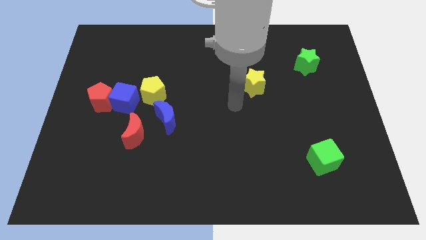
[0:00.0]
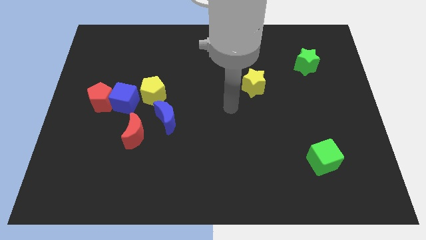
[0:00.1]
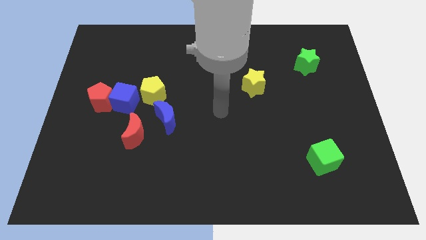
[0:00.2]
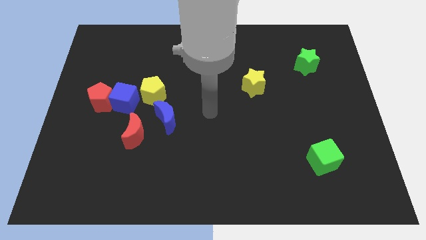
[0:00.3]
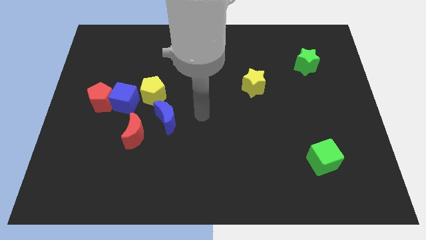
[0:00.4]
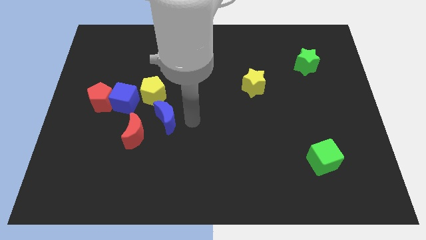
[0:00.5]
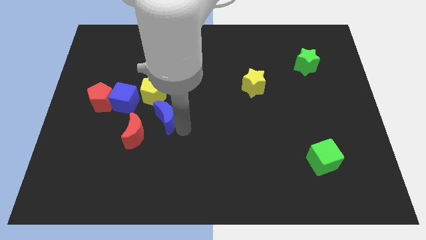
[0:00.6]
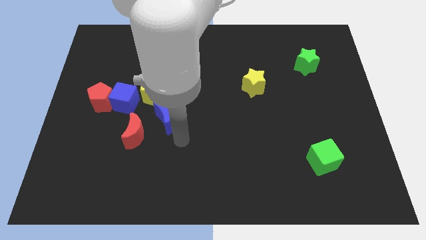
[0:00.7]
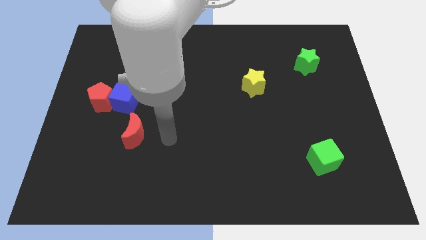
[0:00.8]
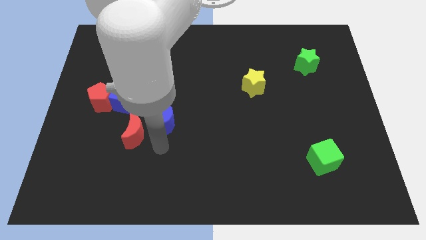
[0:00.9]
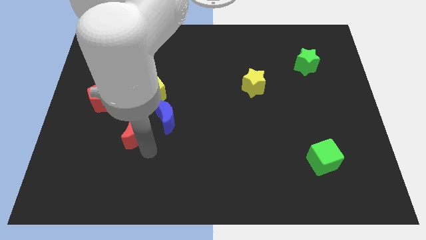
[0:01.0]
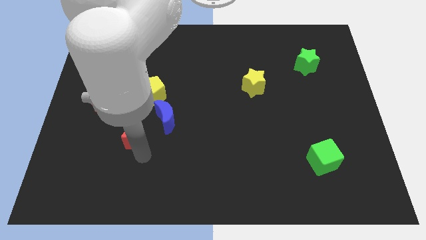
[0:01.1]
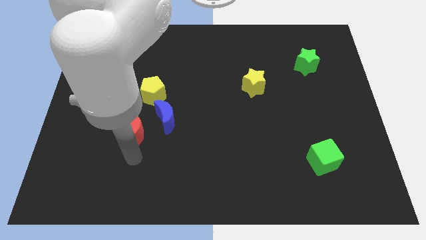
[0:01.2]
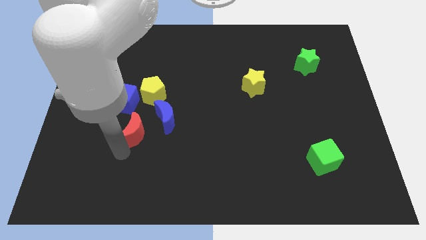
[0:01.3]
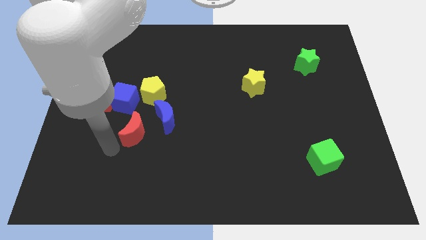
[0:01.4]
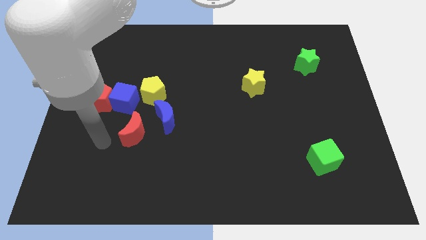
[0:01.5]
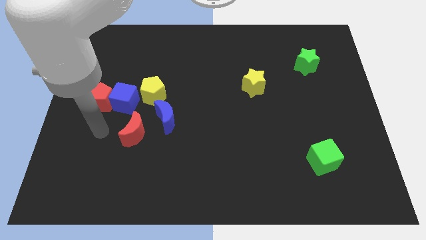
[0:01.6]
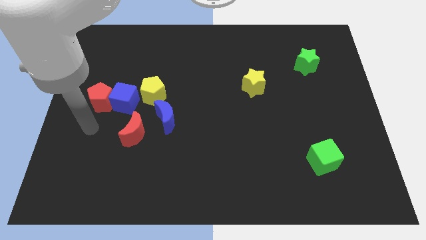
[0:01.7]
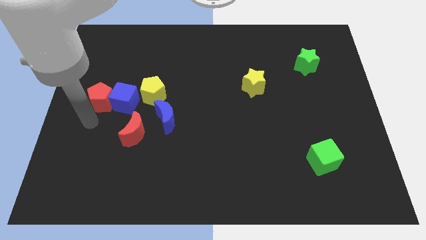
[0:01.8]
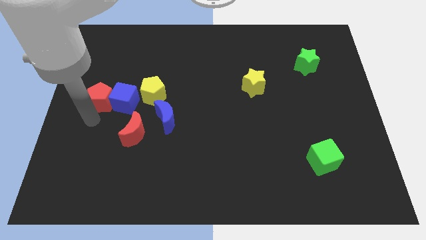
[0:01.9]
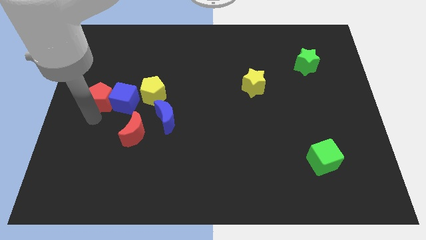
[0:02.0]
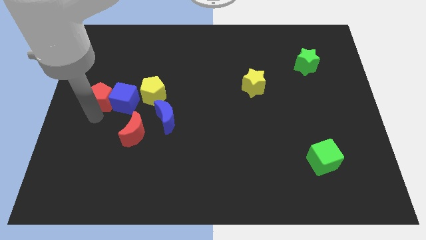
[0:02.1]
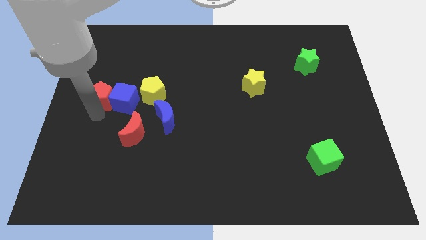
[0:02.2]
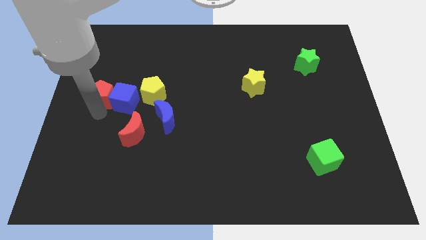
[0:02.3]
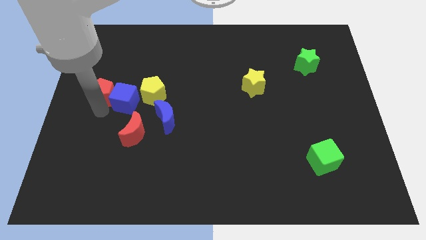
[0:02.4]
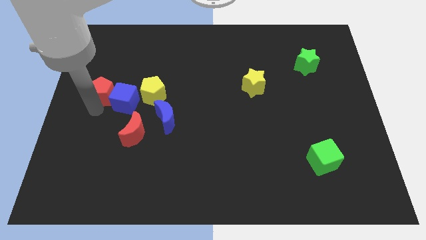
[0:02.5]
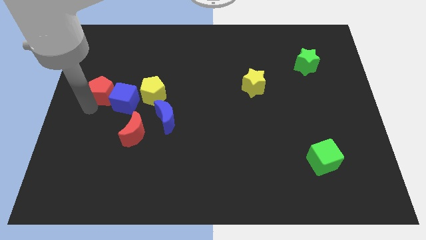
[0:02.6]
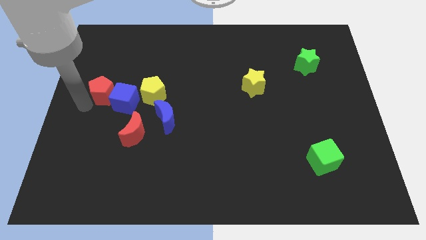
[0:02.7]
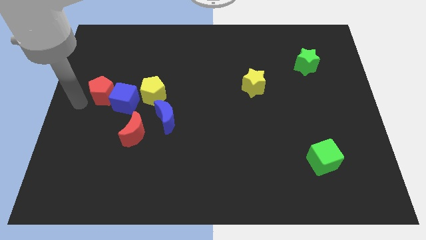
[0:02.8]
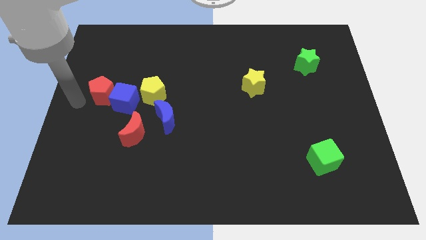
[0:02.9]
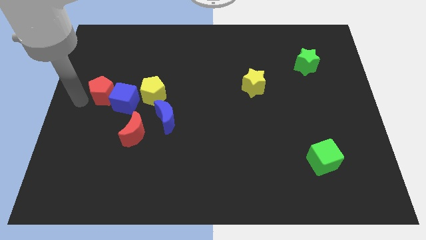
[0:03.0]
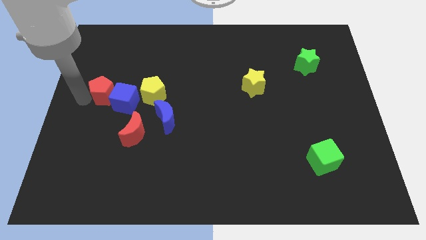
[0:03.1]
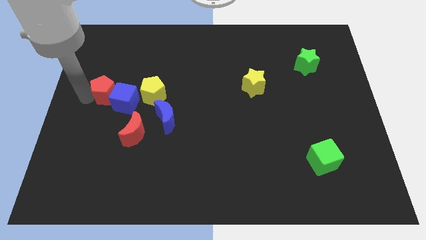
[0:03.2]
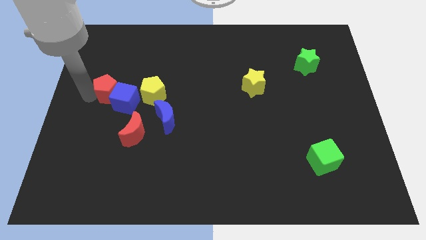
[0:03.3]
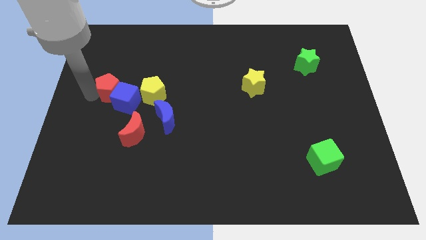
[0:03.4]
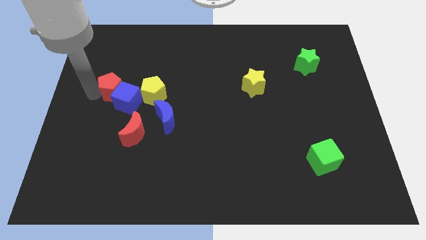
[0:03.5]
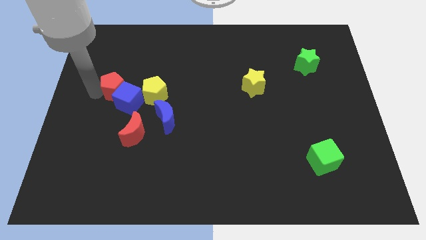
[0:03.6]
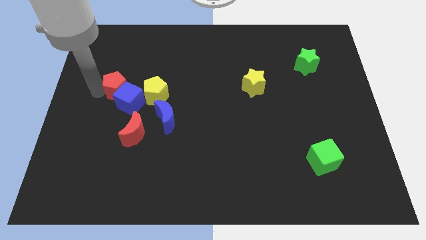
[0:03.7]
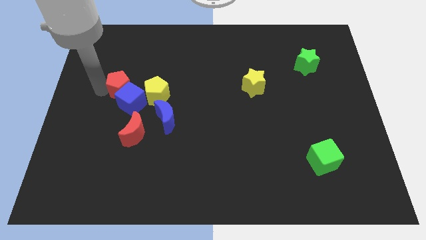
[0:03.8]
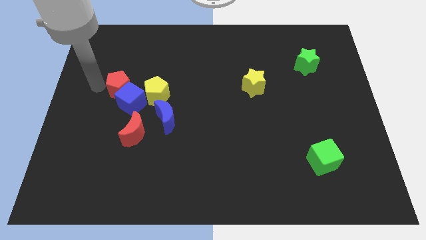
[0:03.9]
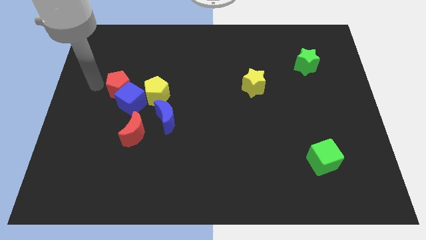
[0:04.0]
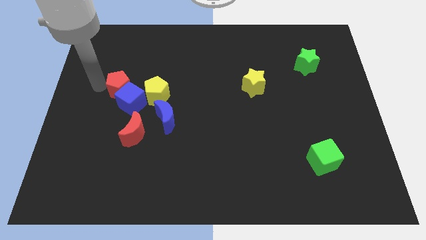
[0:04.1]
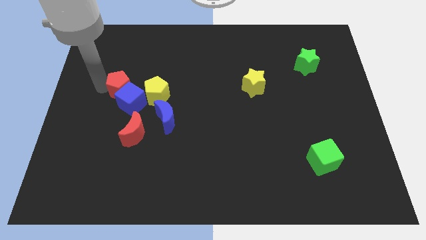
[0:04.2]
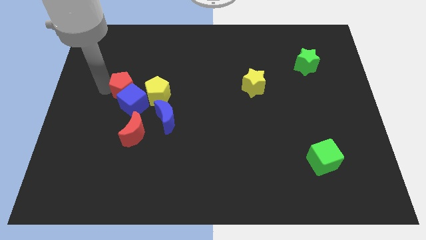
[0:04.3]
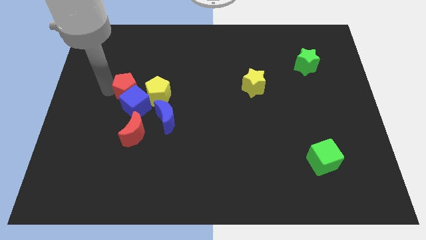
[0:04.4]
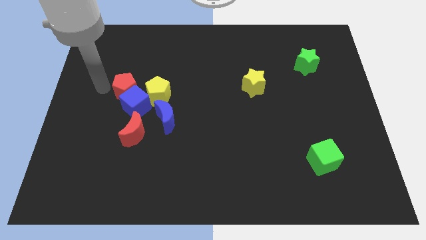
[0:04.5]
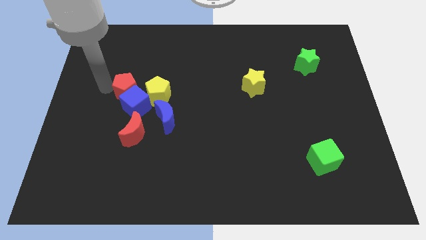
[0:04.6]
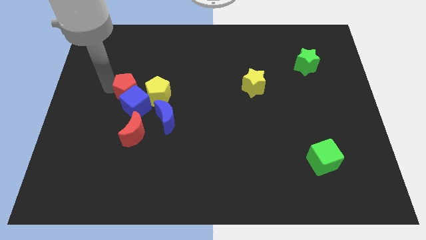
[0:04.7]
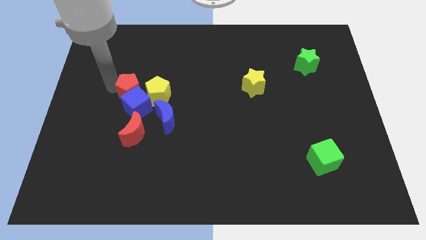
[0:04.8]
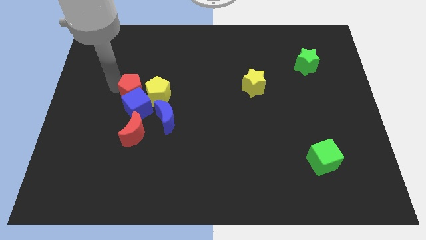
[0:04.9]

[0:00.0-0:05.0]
push the red pentagon to the yellow pentagon

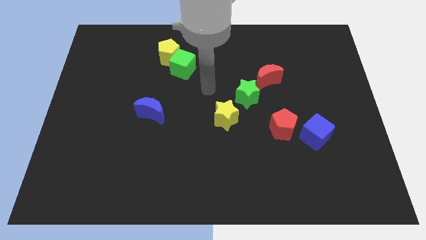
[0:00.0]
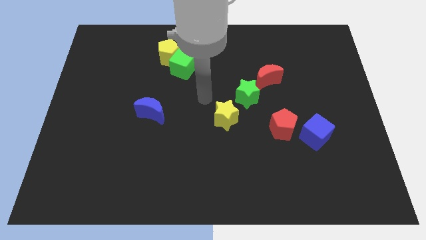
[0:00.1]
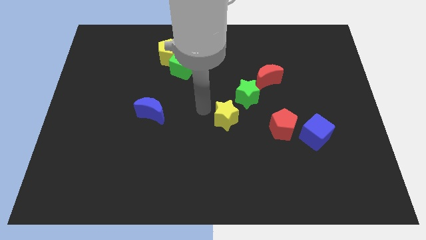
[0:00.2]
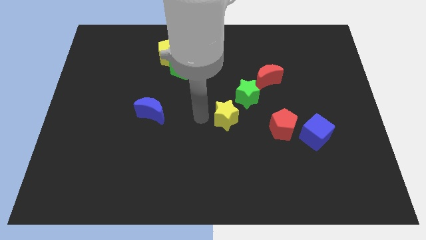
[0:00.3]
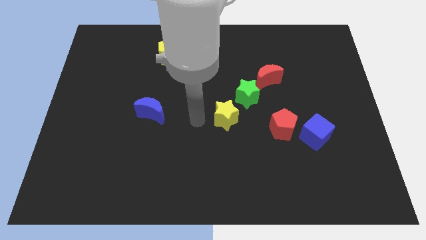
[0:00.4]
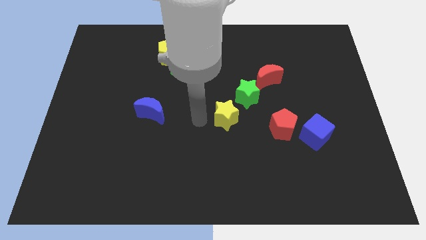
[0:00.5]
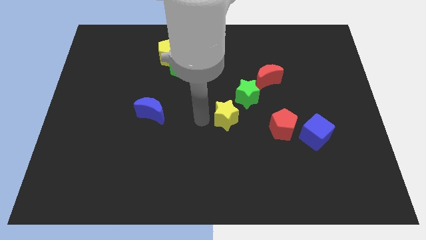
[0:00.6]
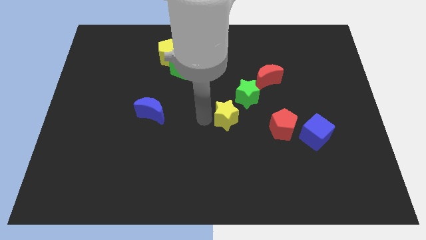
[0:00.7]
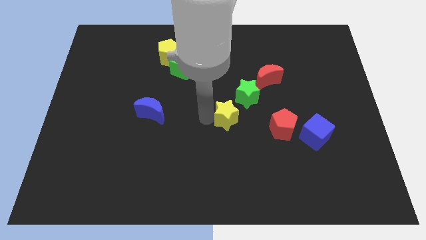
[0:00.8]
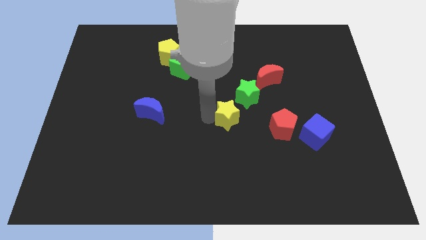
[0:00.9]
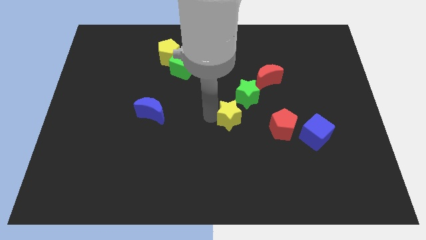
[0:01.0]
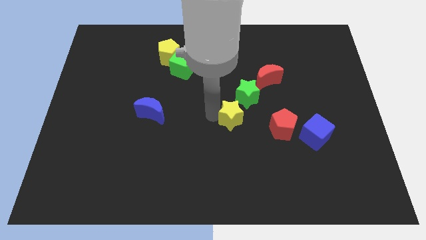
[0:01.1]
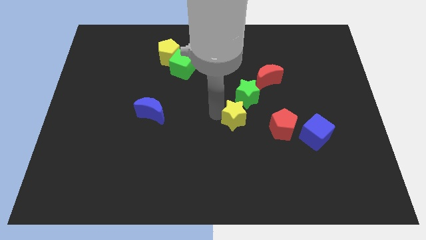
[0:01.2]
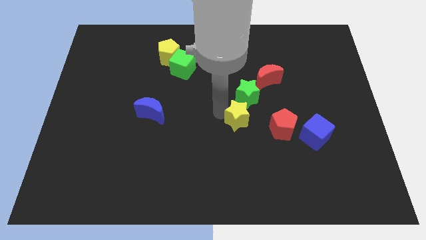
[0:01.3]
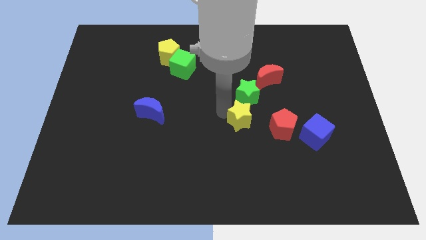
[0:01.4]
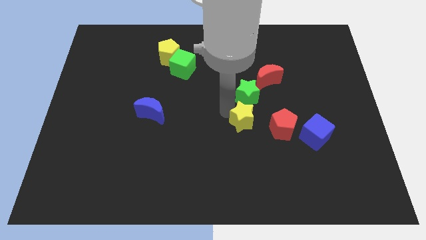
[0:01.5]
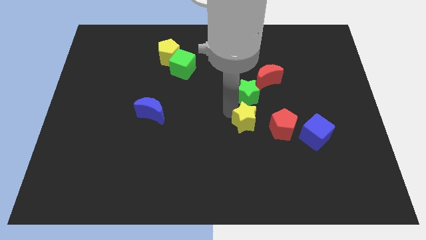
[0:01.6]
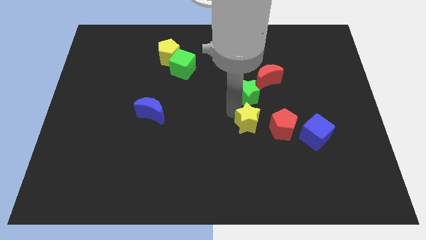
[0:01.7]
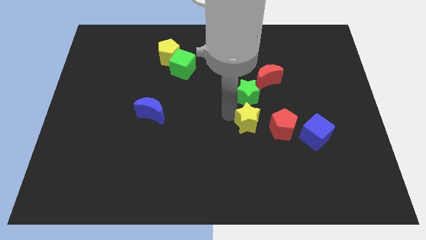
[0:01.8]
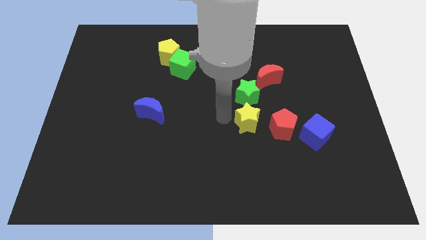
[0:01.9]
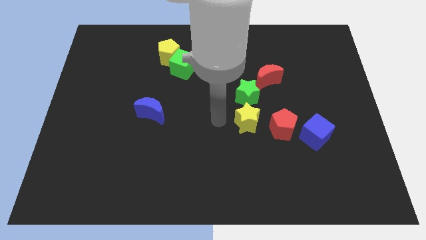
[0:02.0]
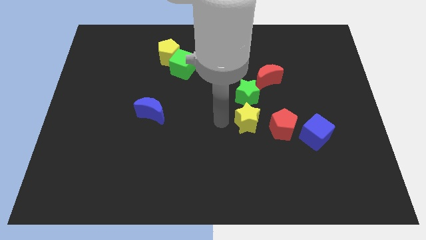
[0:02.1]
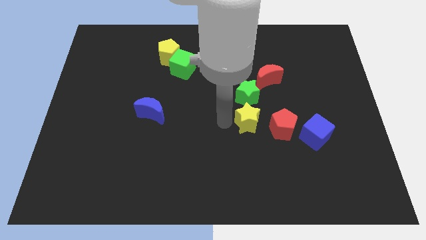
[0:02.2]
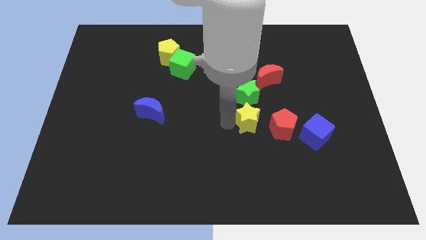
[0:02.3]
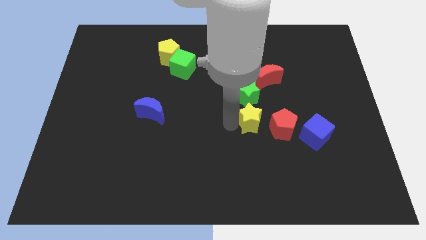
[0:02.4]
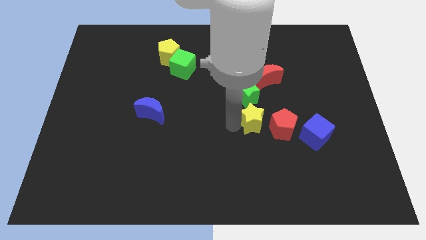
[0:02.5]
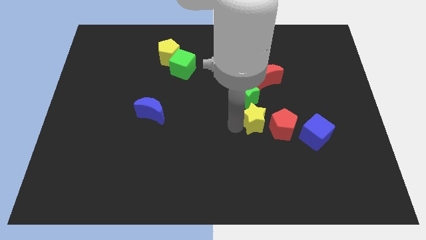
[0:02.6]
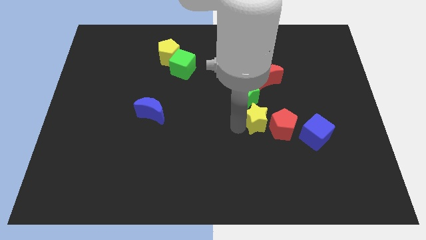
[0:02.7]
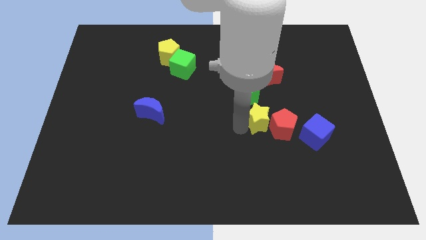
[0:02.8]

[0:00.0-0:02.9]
slide the yellow star next to the red pentagon
